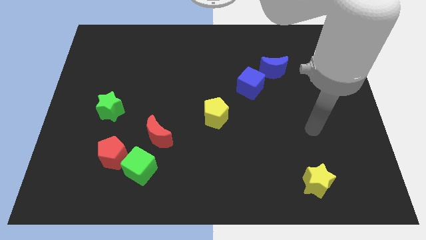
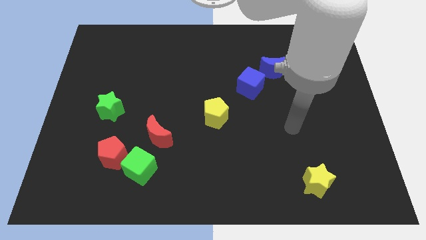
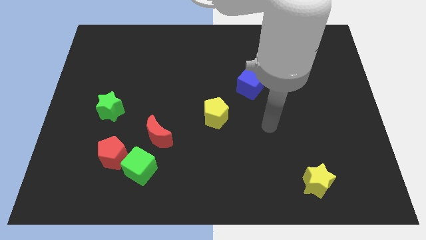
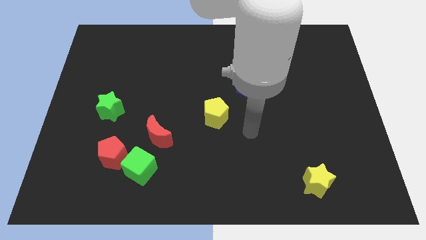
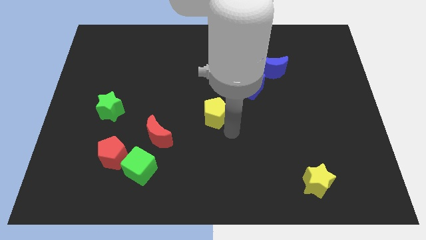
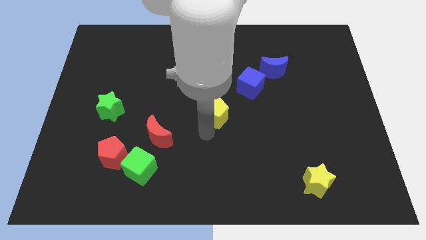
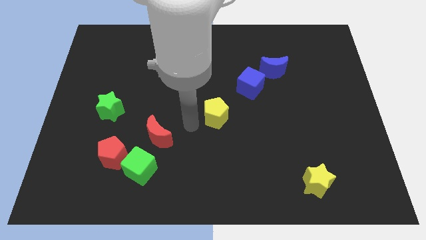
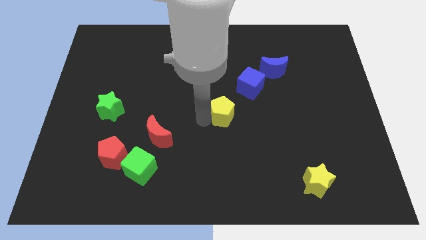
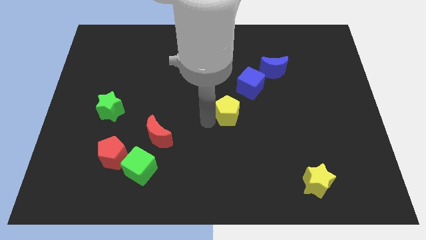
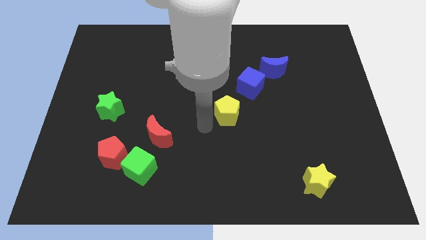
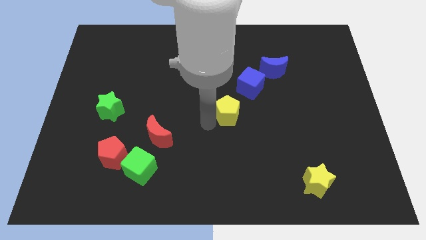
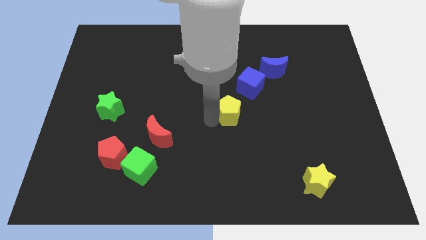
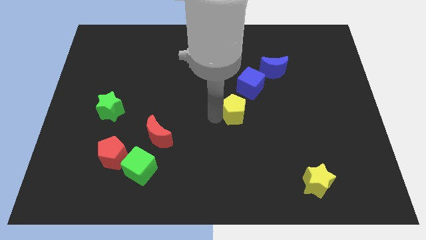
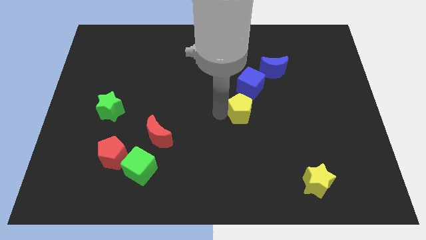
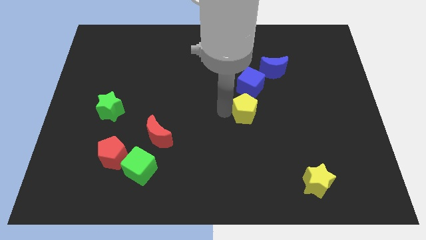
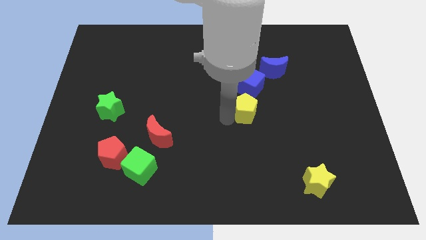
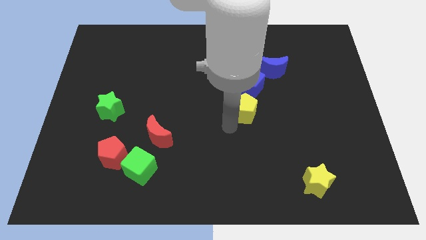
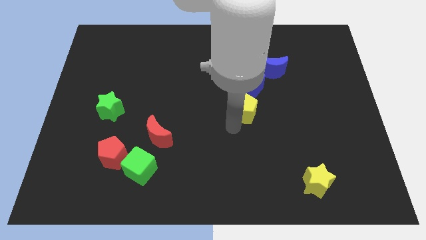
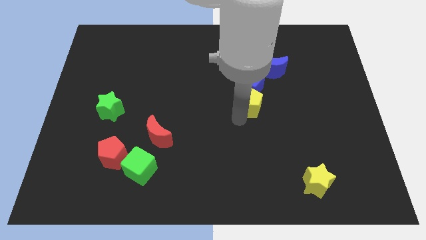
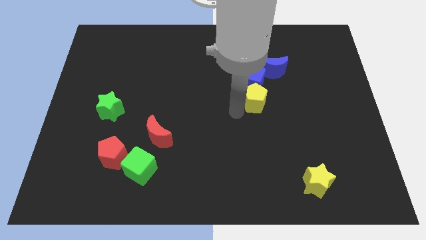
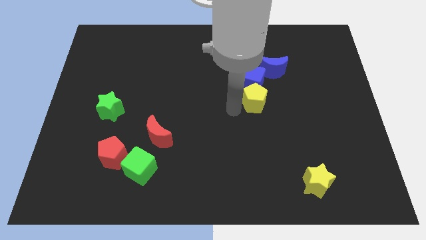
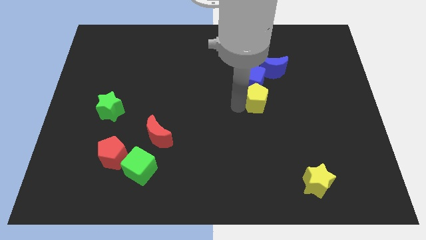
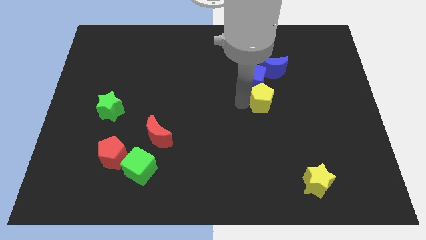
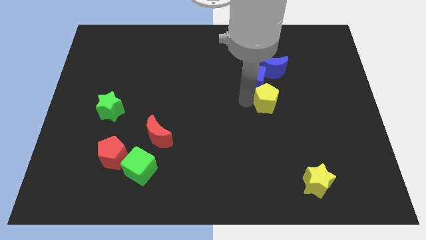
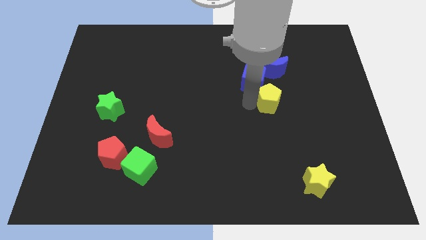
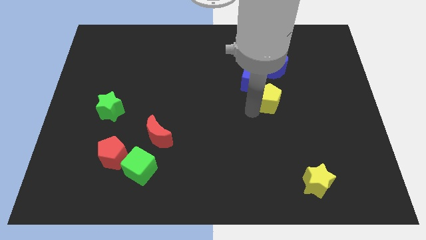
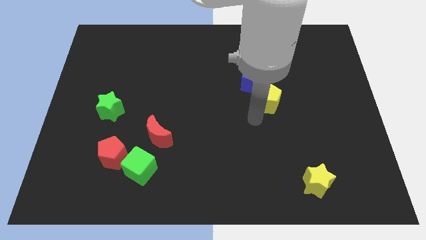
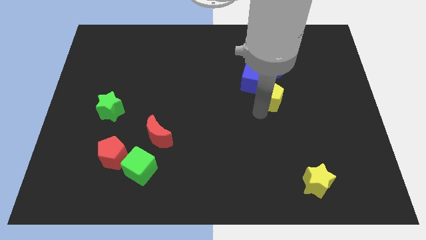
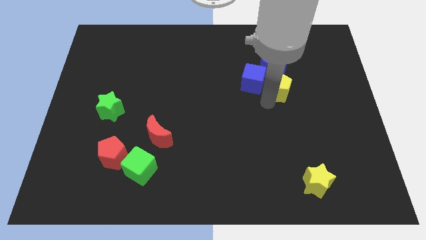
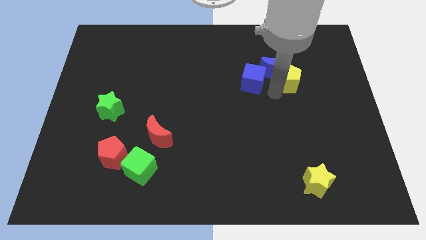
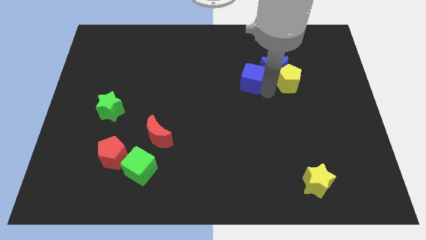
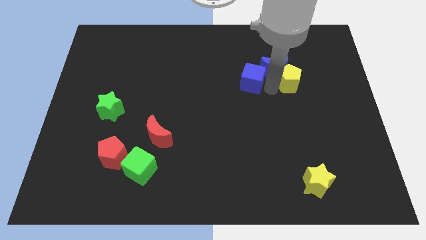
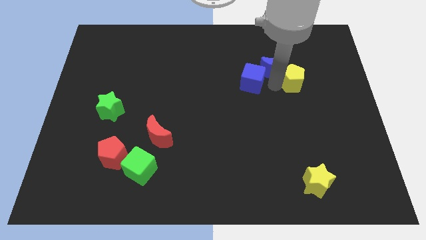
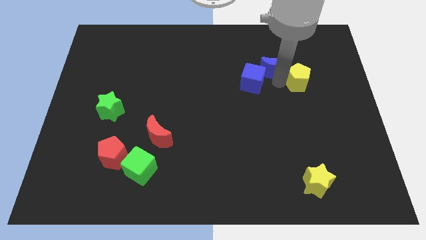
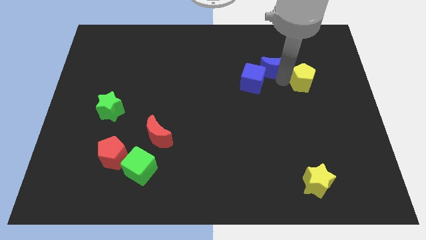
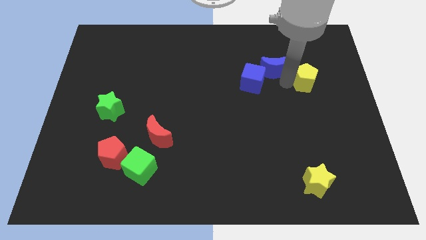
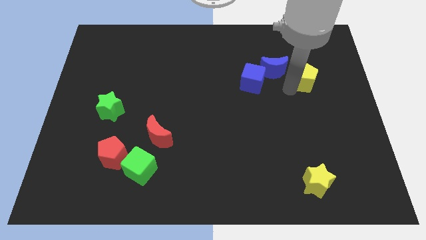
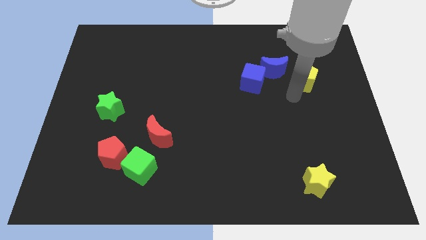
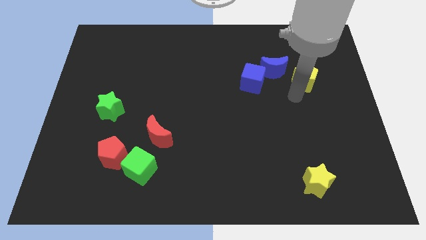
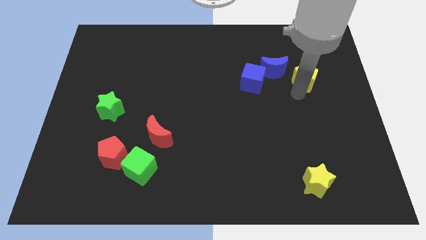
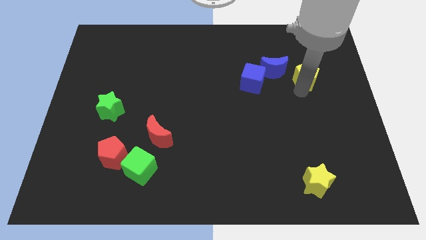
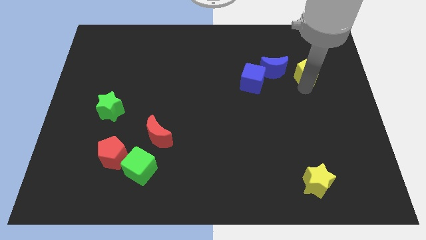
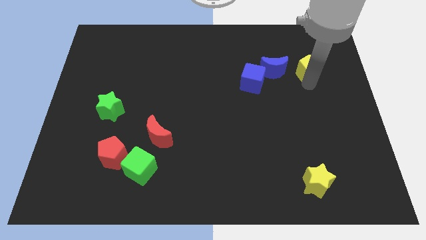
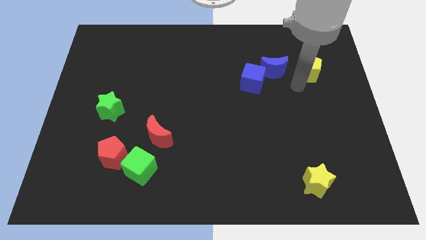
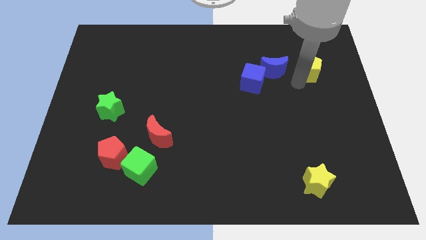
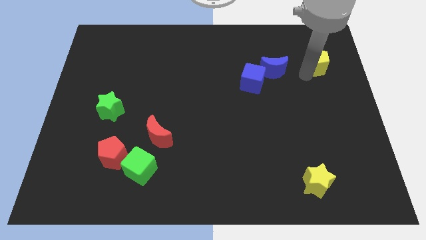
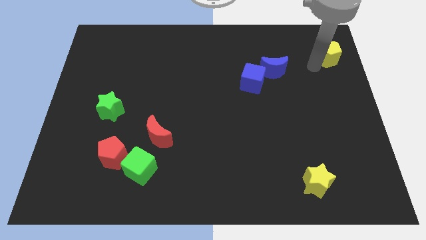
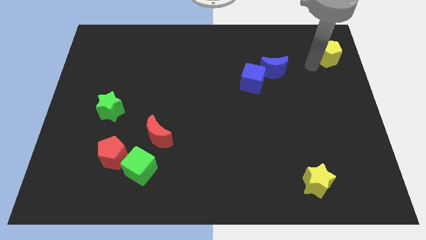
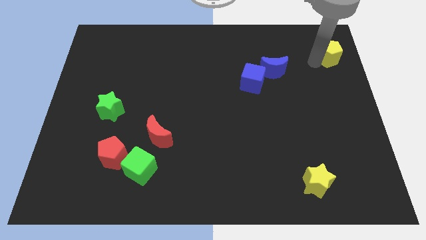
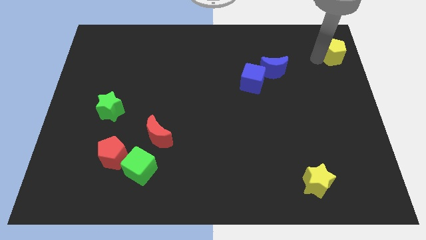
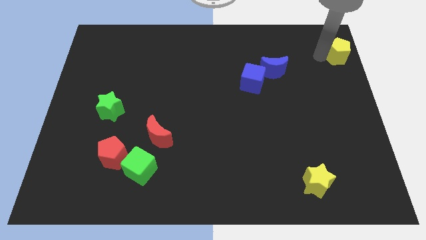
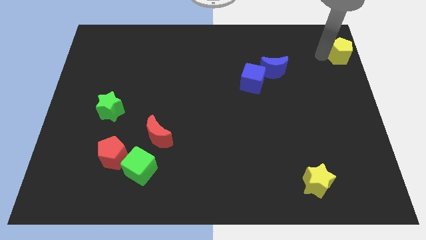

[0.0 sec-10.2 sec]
move the yellow pentagon to the upper right corner

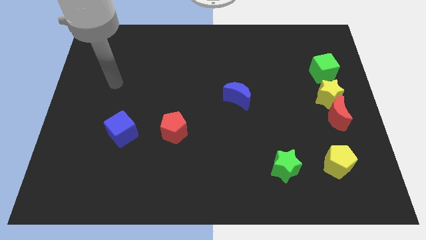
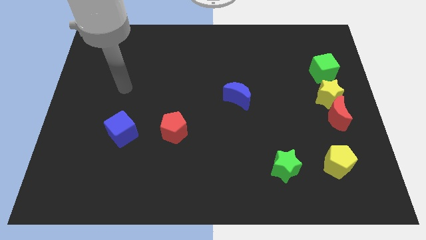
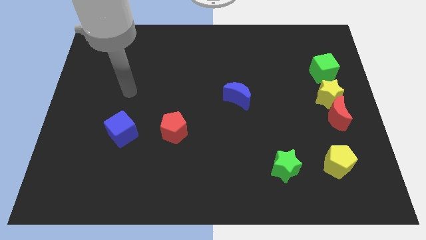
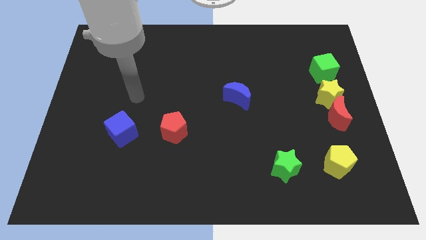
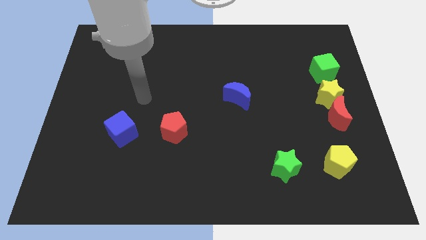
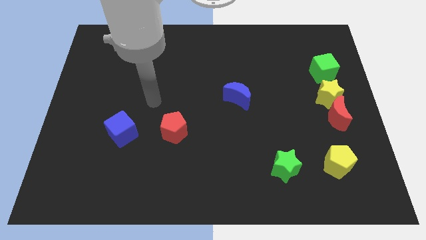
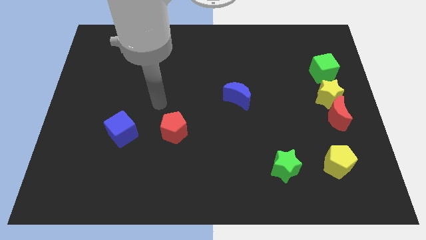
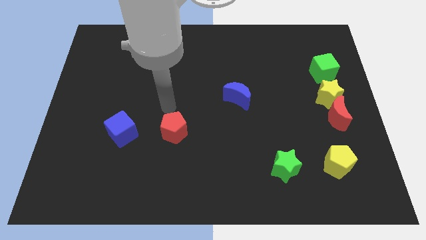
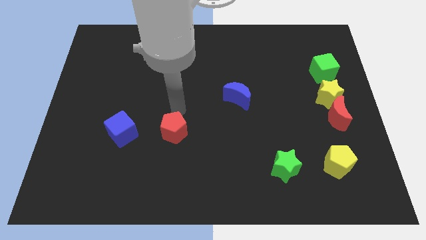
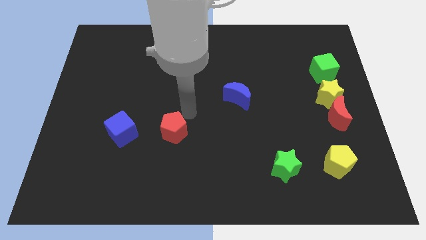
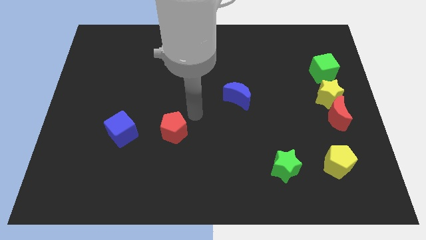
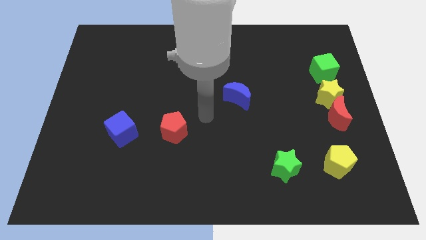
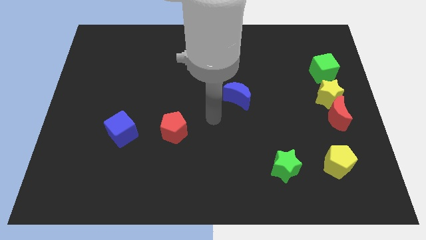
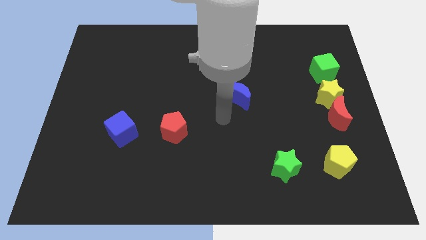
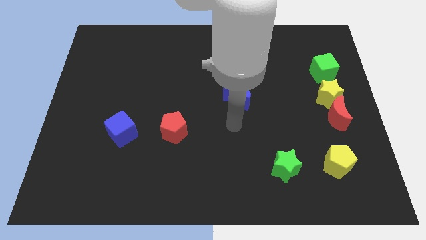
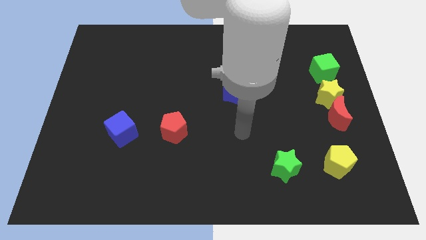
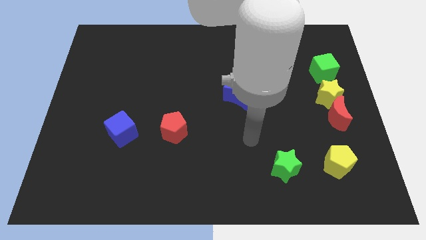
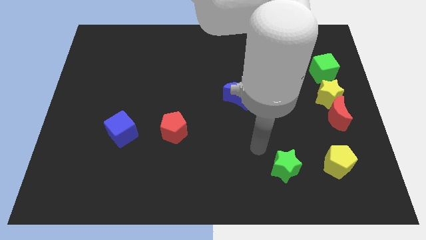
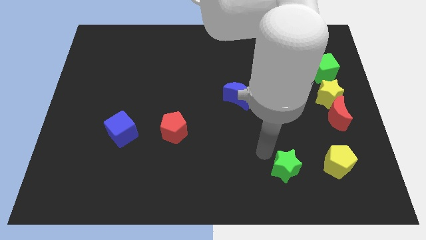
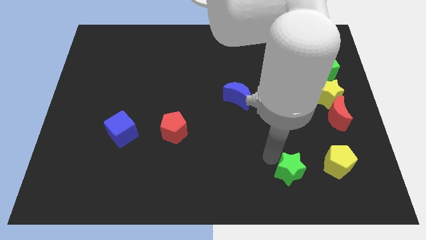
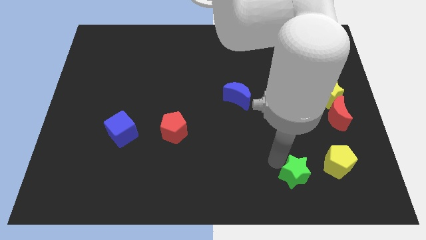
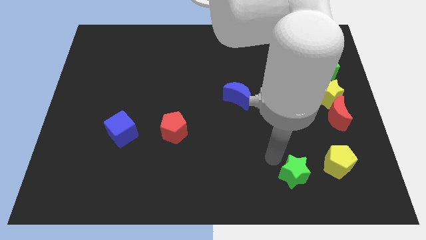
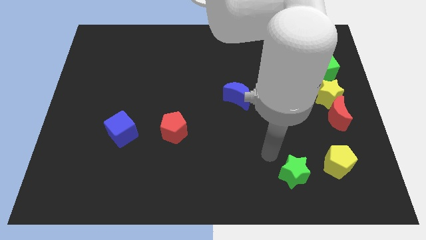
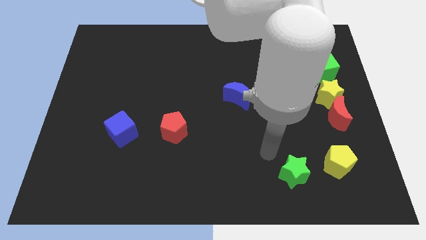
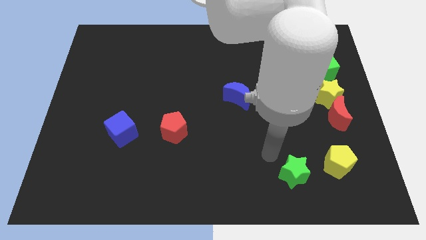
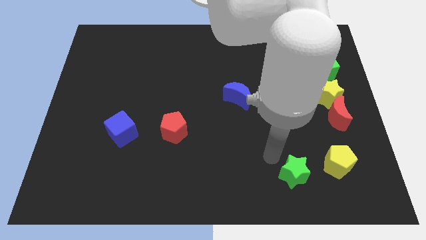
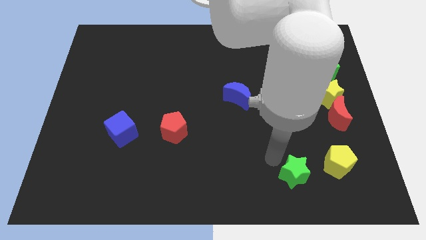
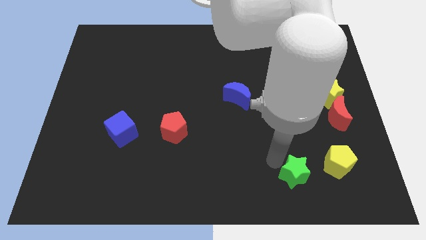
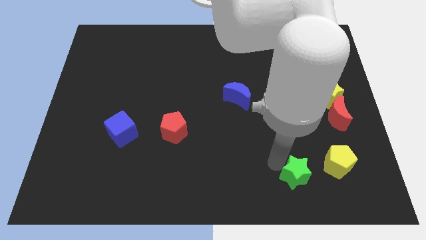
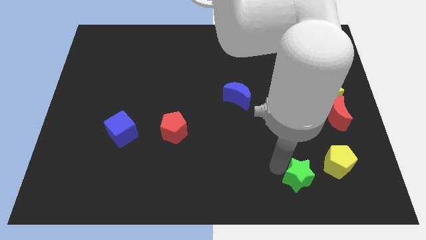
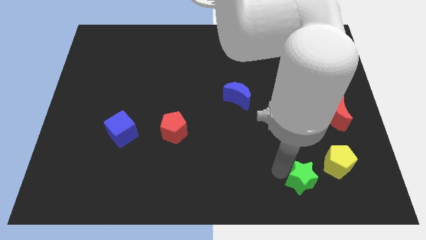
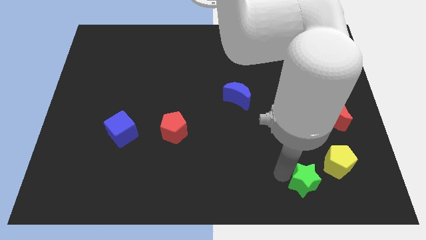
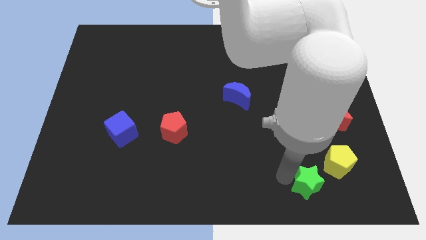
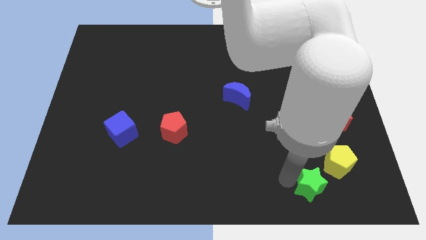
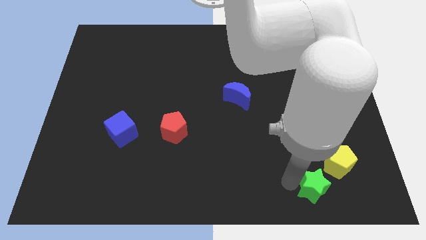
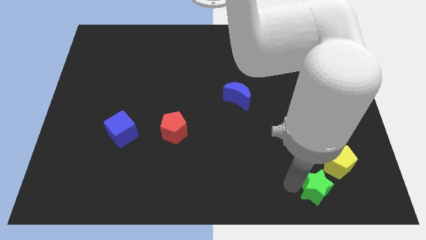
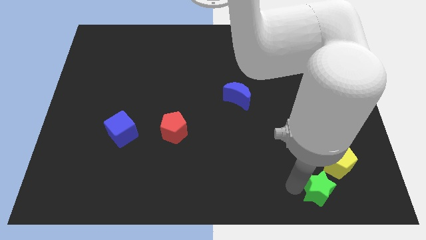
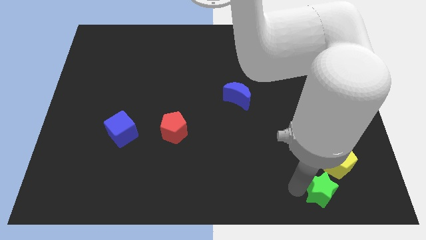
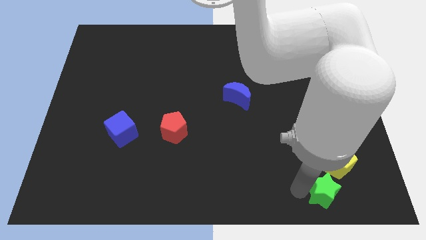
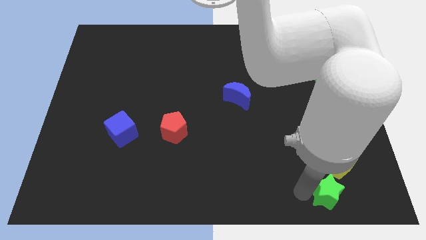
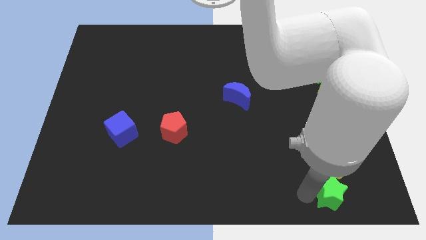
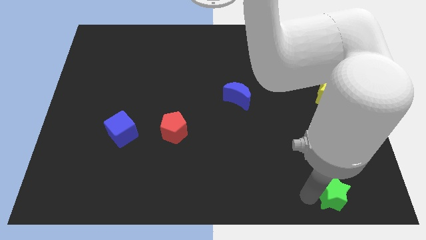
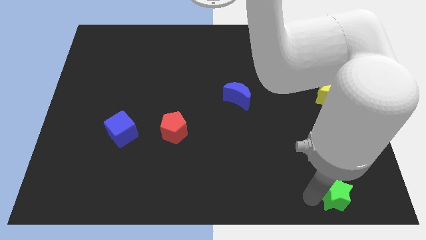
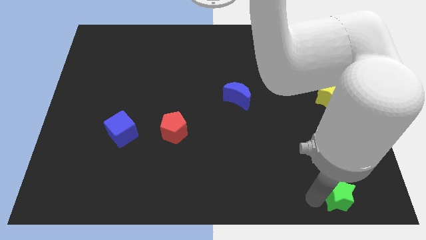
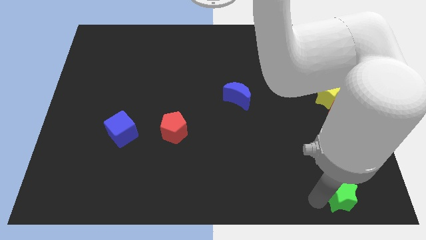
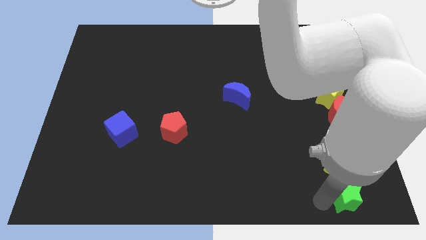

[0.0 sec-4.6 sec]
move the green star to the lower right corner
